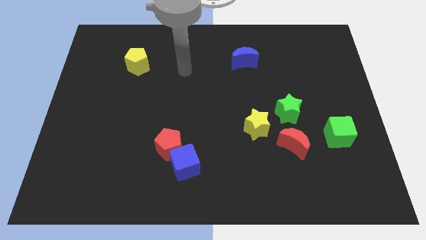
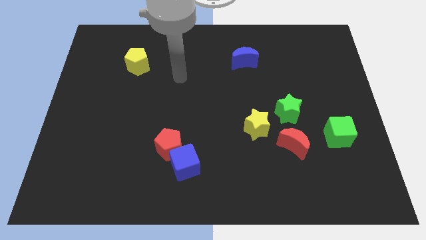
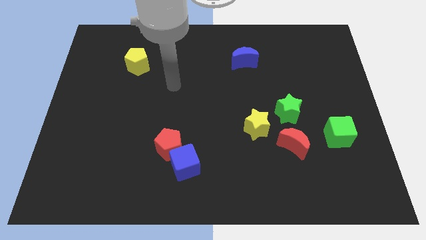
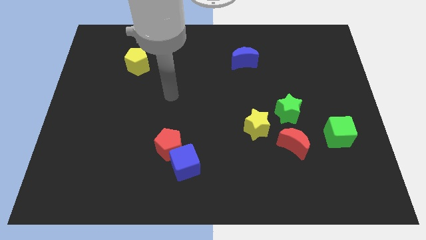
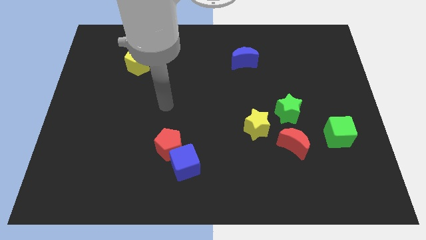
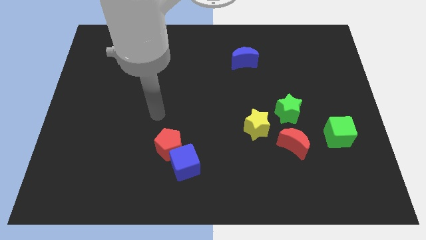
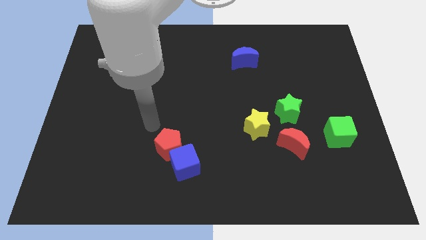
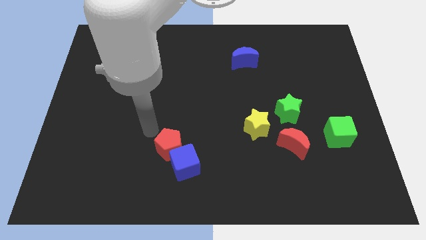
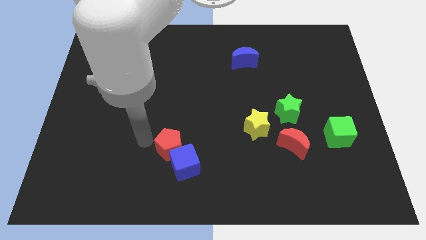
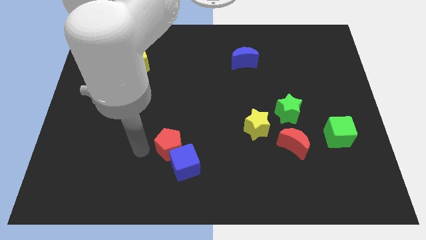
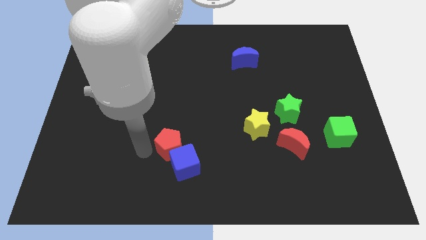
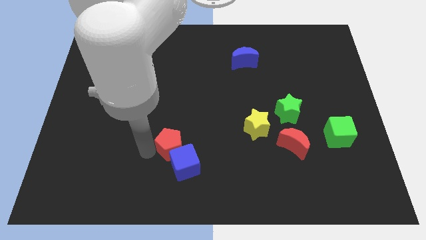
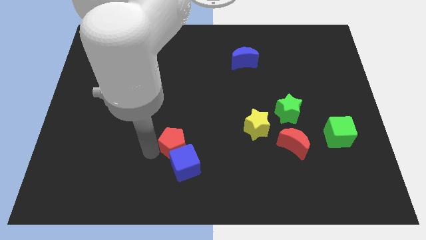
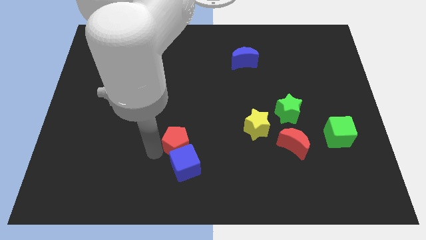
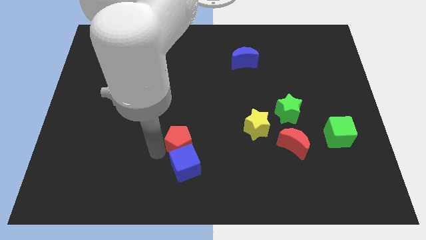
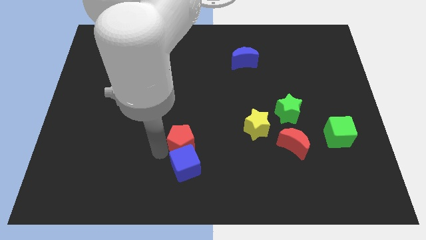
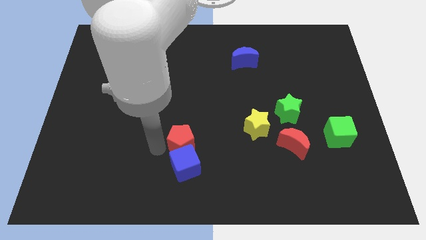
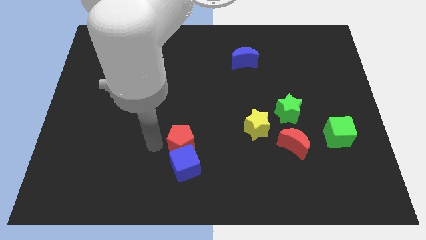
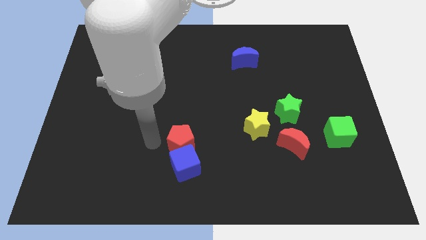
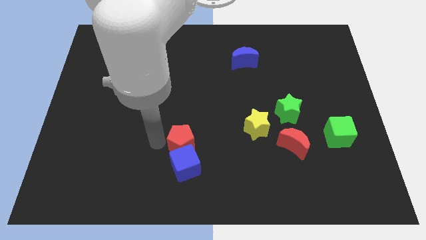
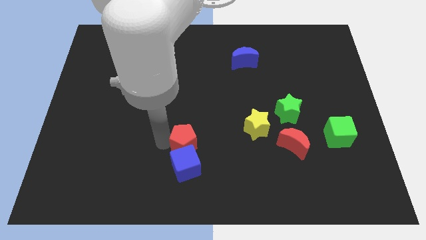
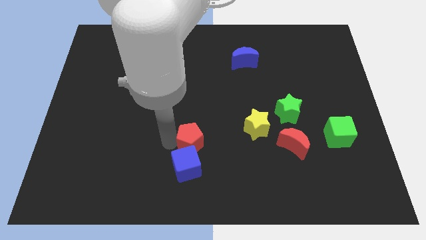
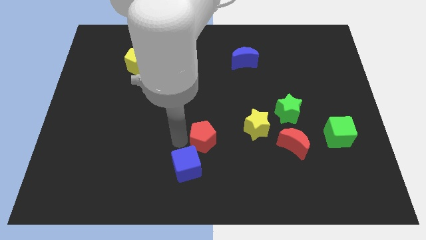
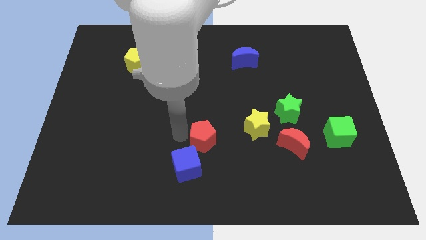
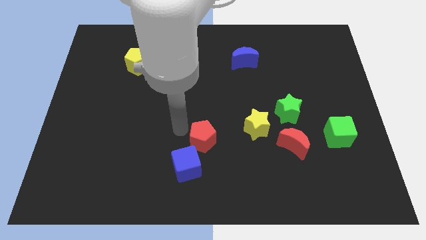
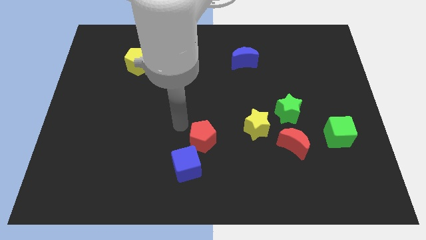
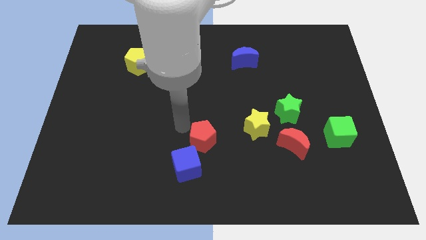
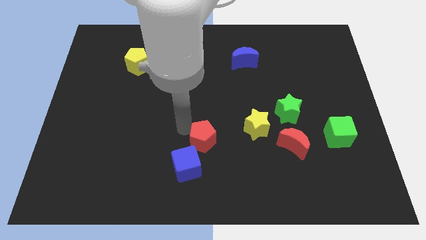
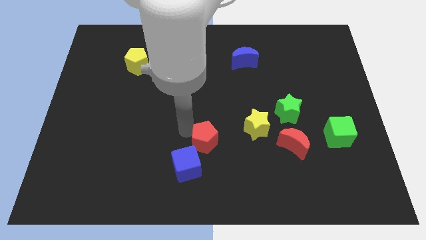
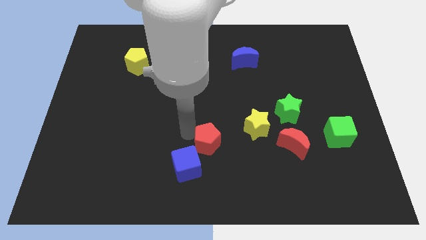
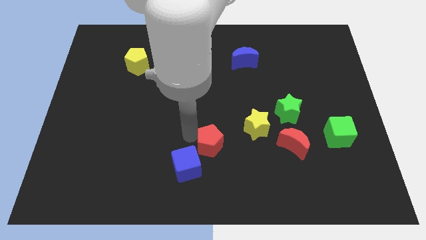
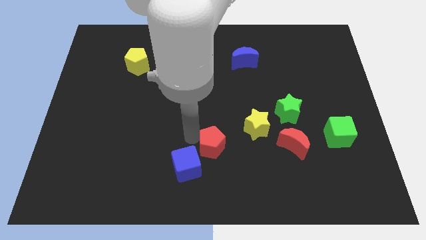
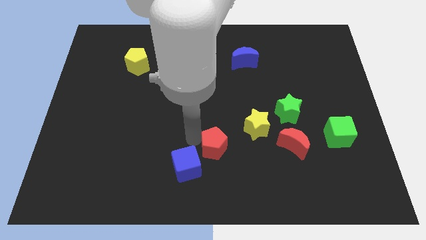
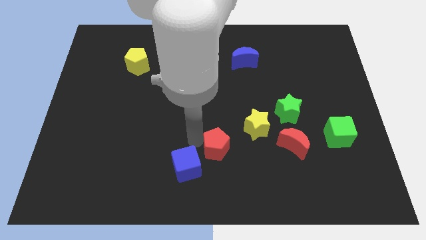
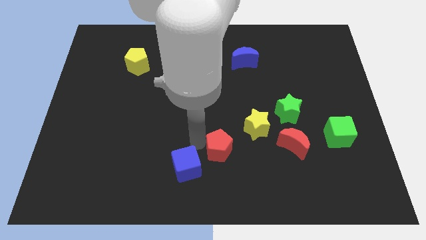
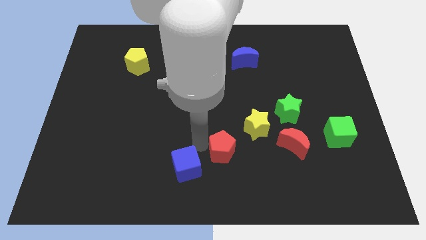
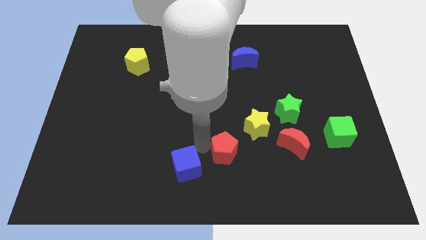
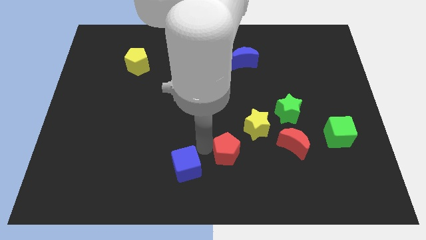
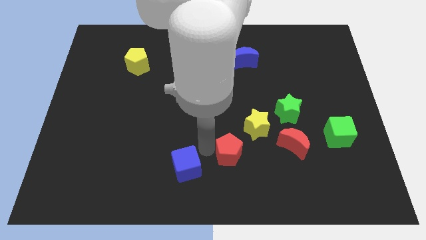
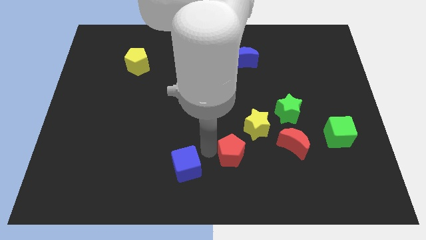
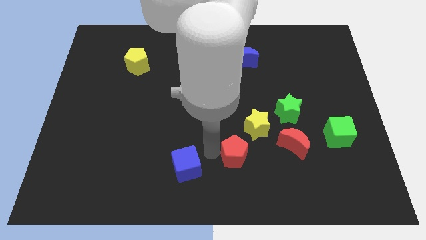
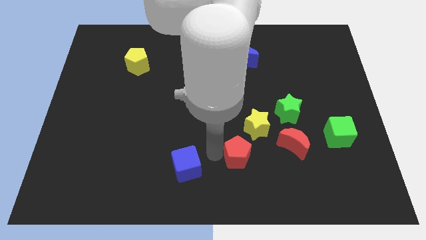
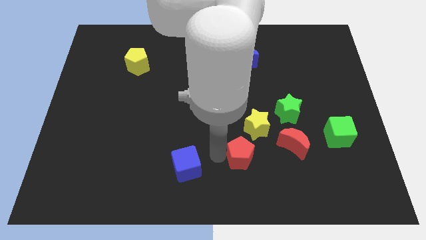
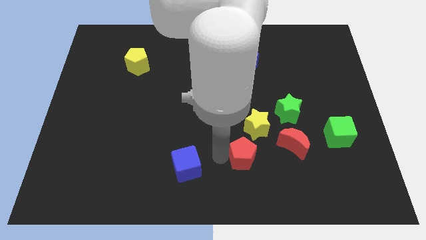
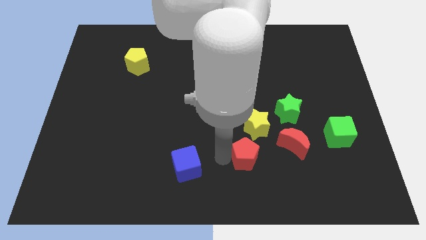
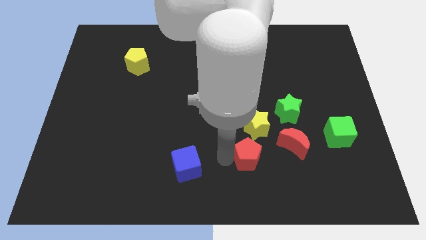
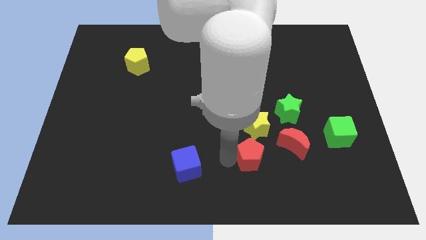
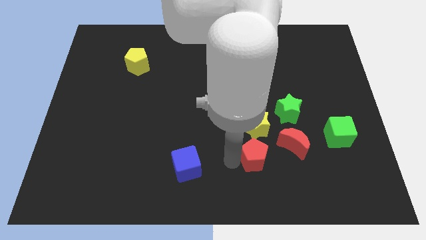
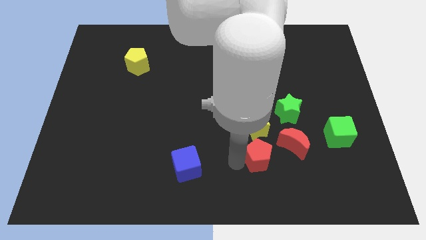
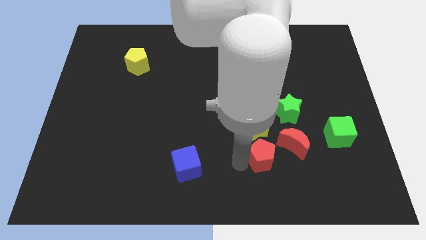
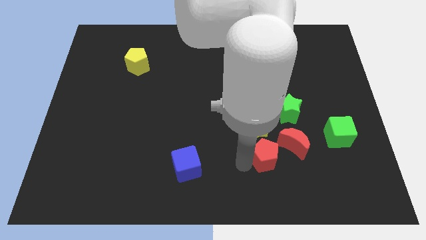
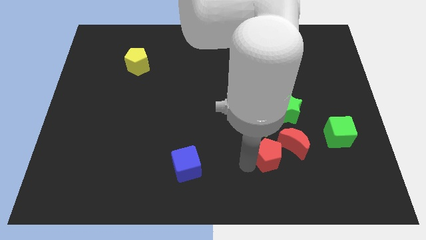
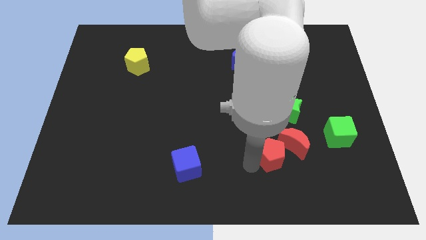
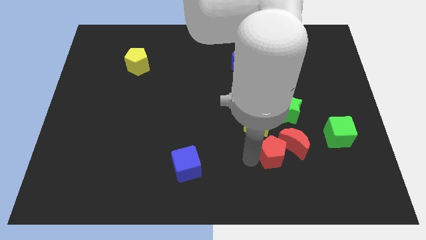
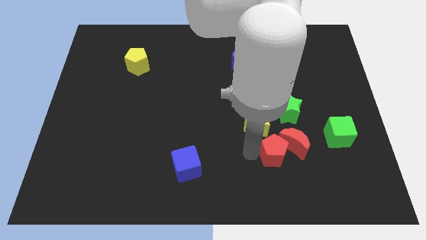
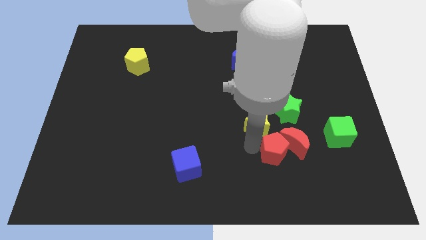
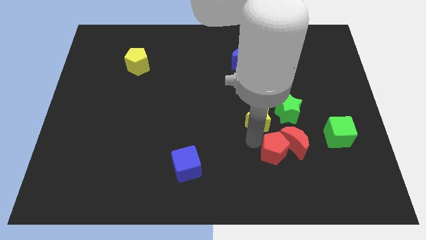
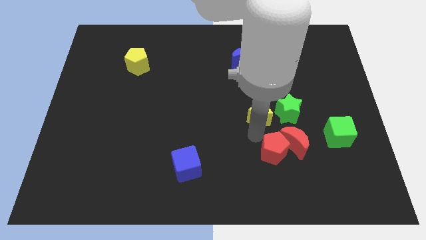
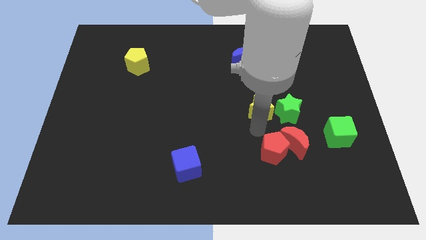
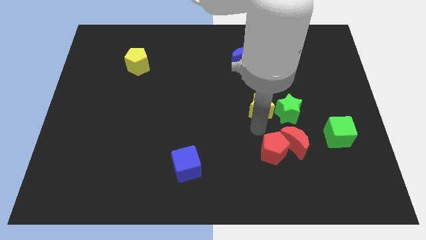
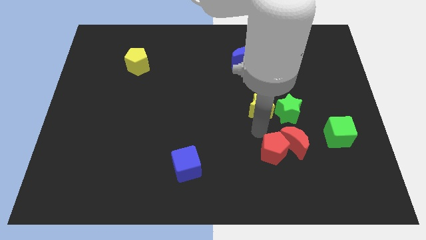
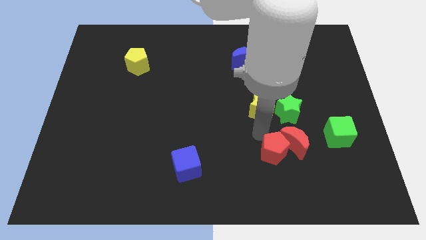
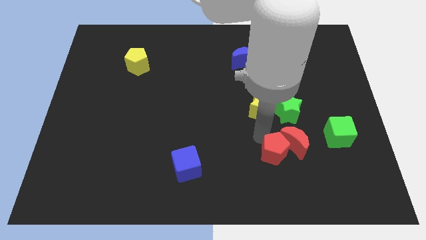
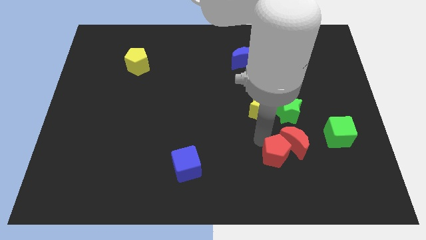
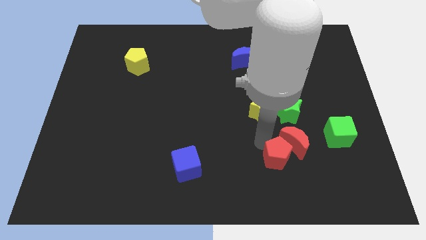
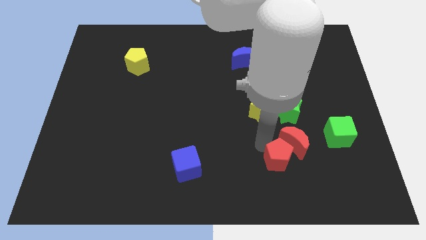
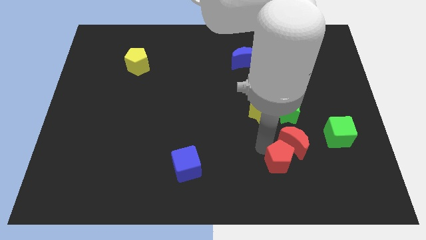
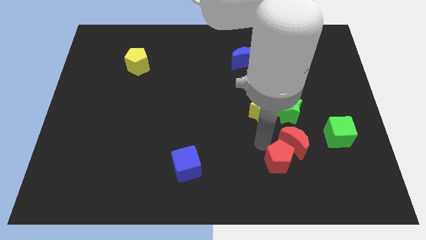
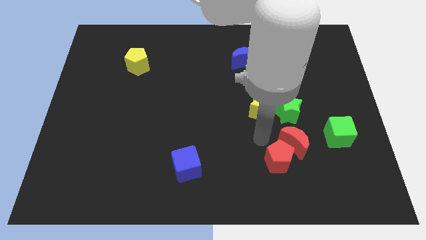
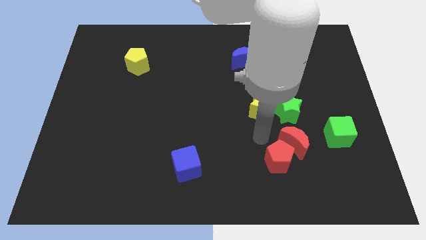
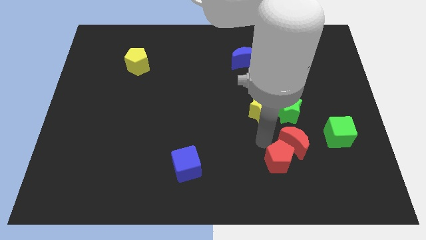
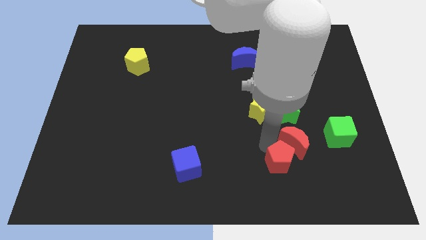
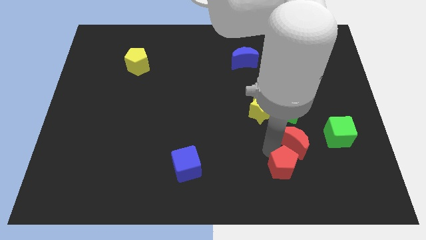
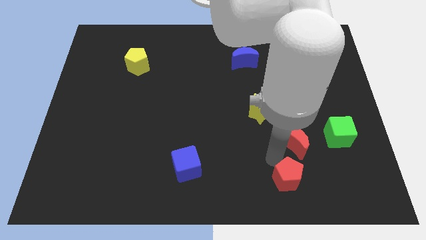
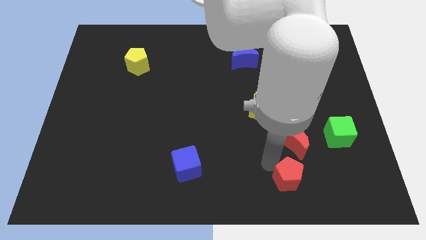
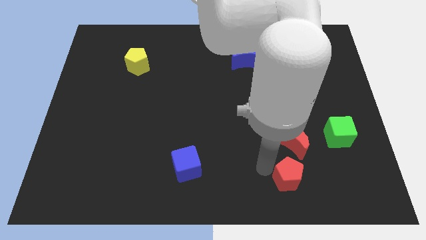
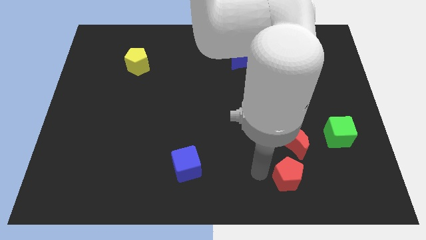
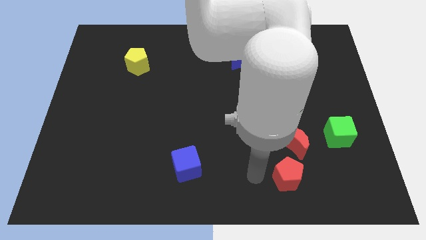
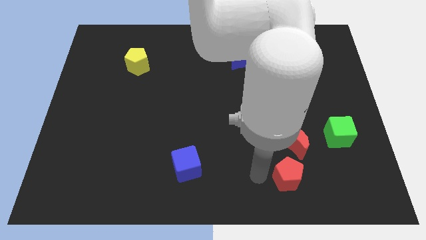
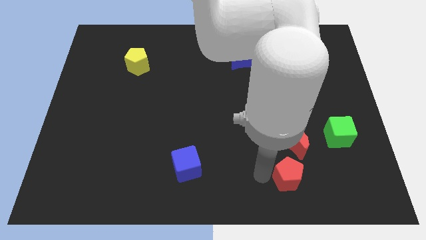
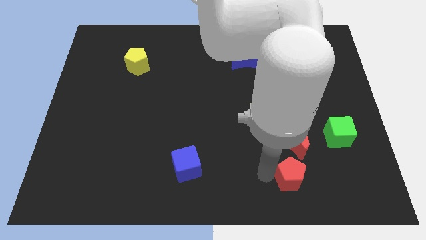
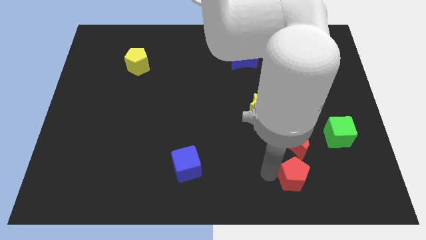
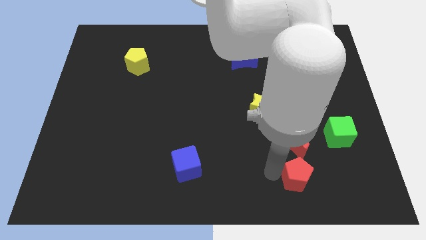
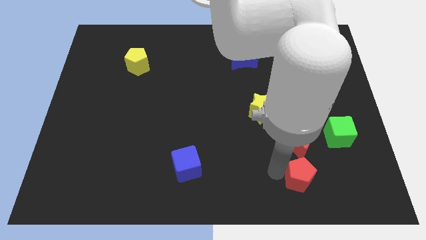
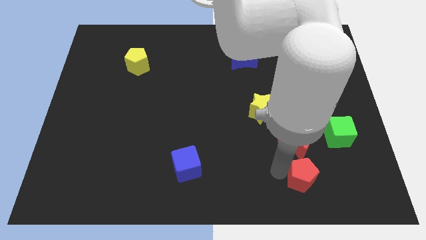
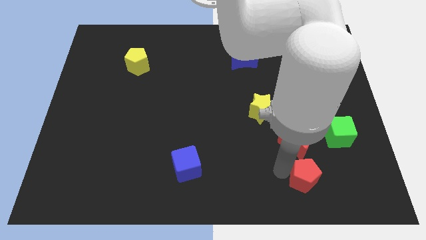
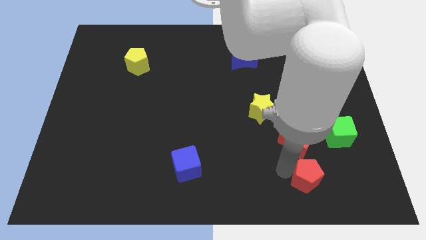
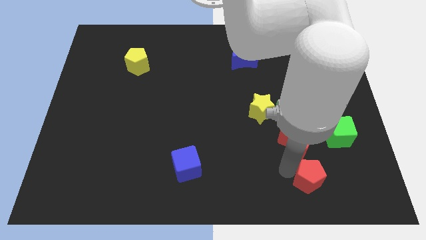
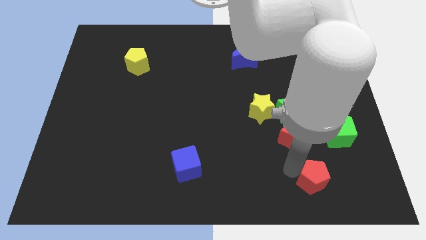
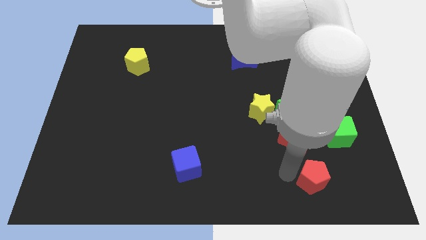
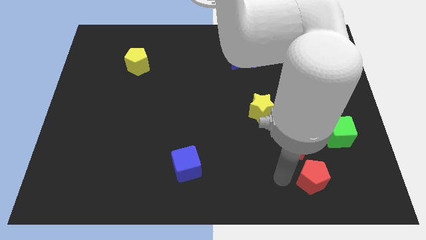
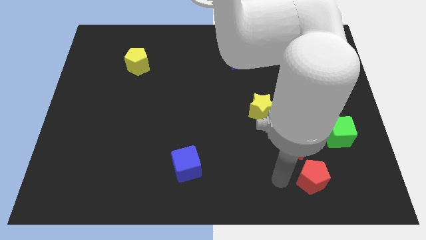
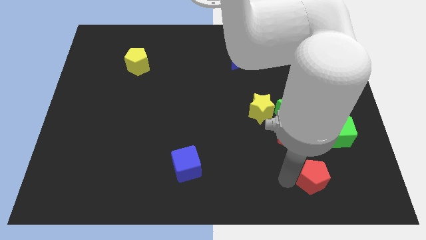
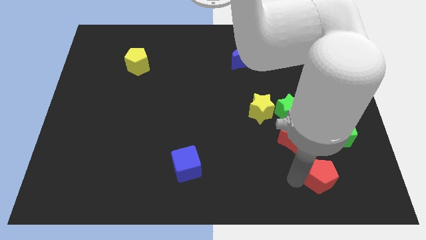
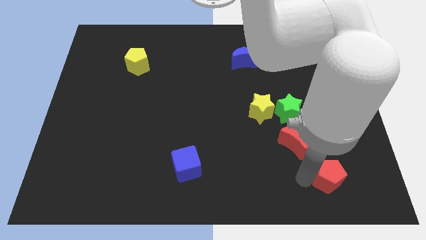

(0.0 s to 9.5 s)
move the red pentagon to the bottom side of the green cube
